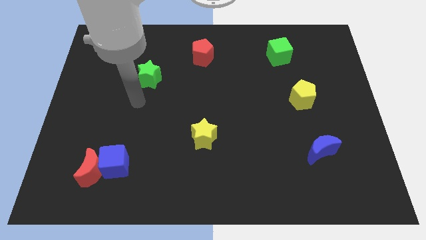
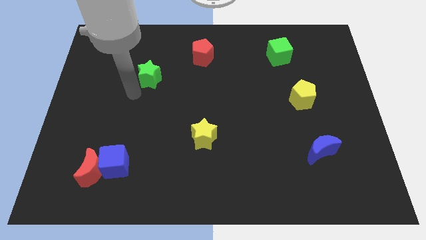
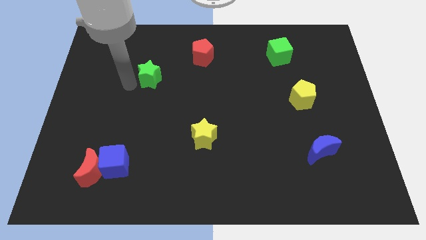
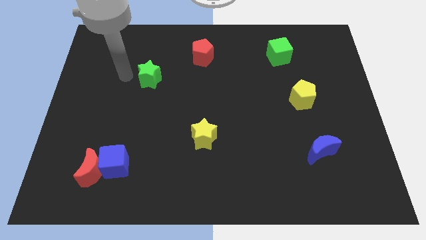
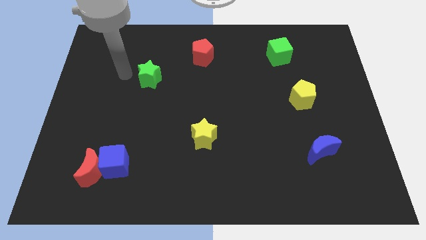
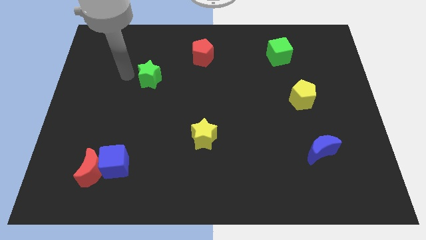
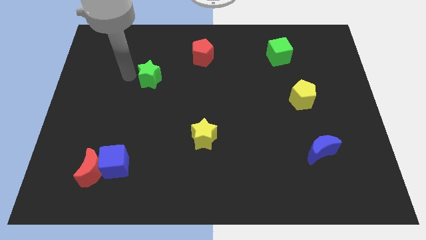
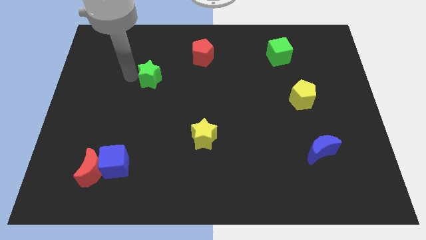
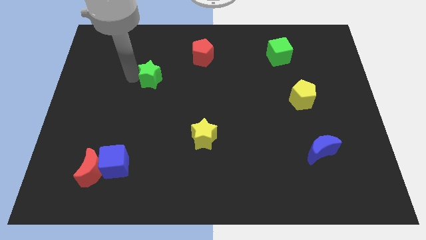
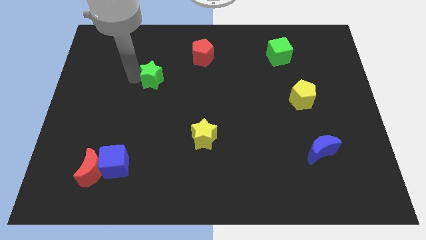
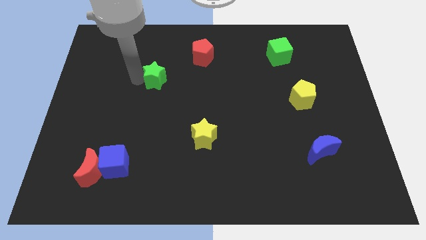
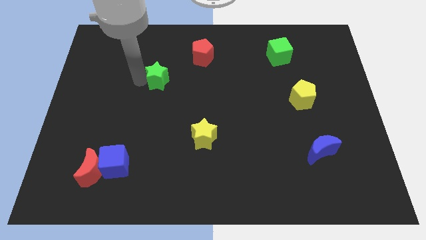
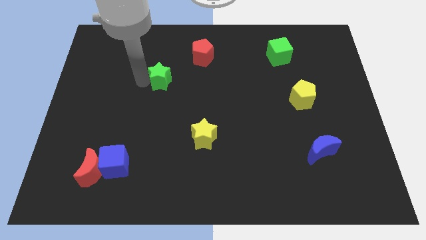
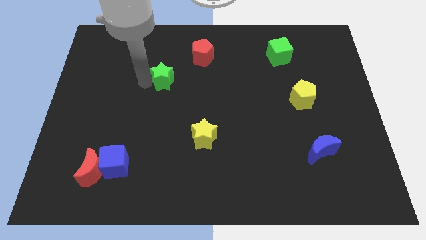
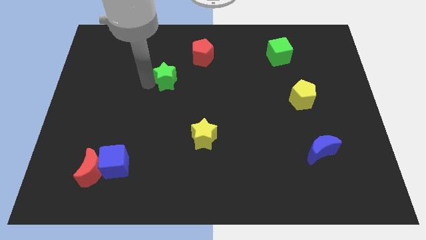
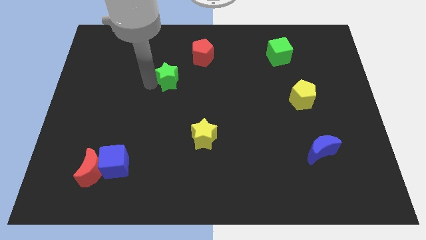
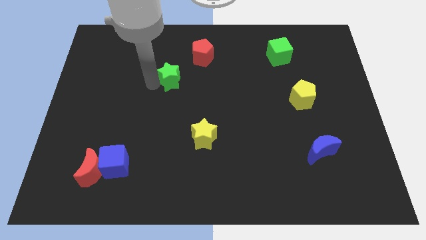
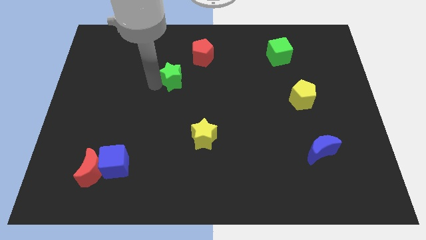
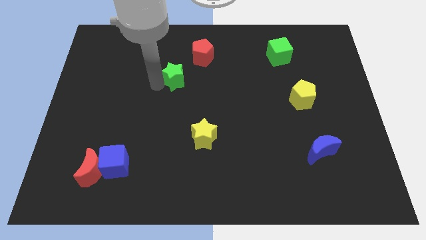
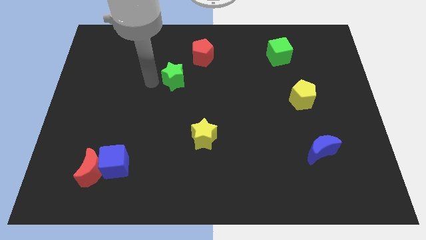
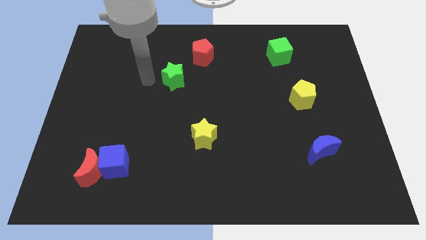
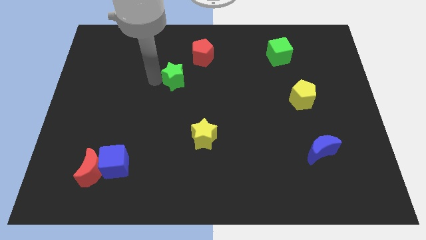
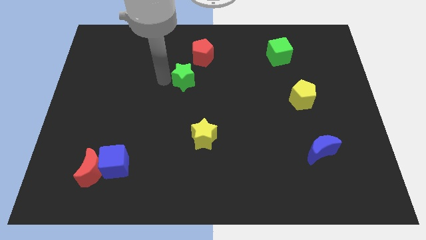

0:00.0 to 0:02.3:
slightly move the green star right

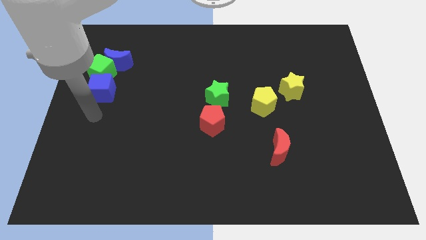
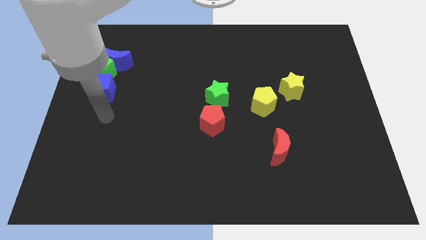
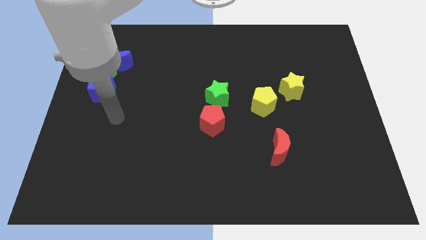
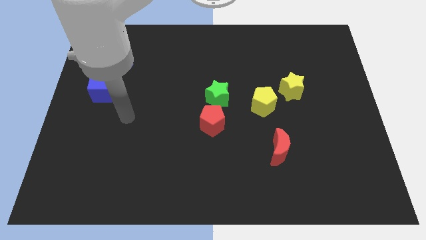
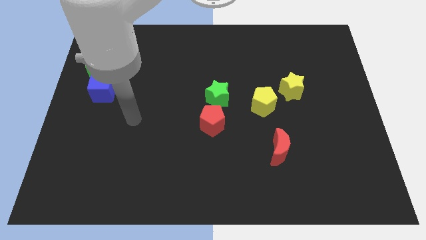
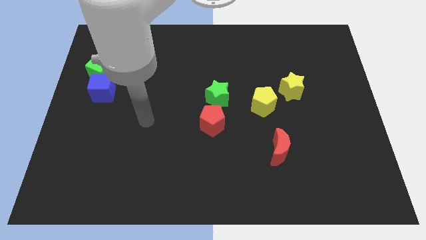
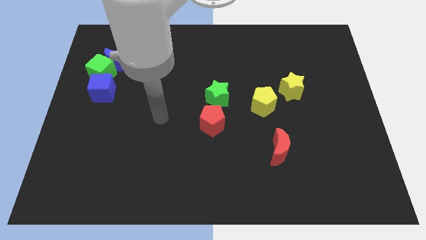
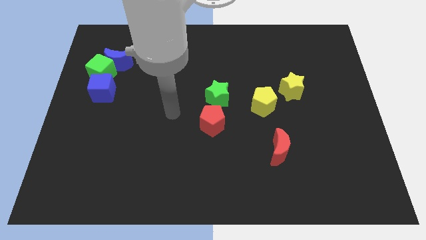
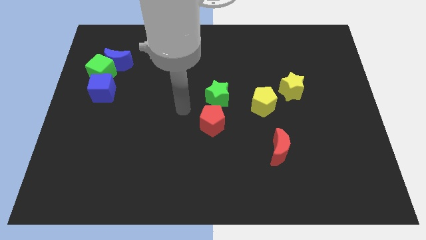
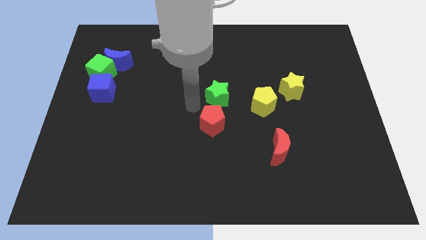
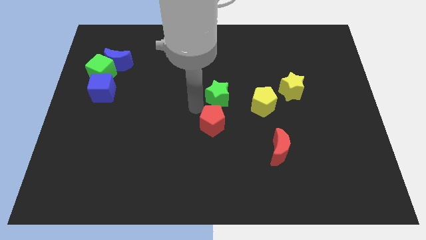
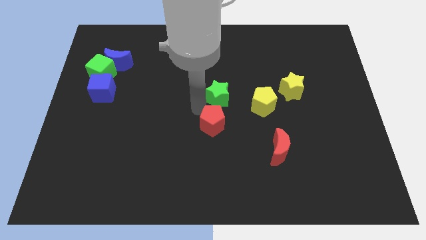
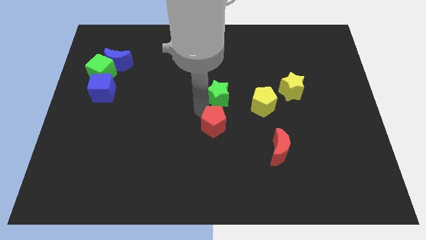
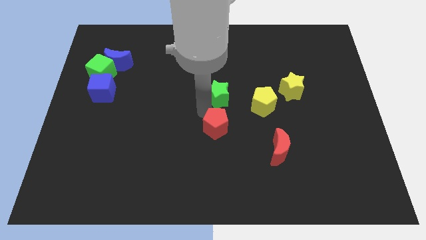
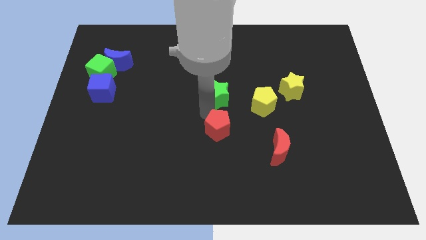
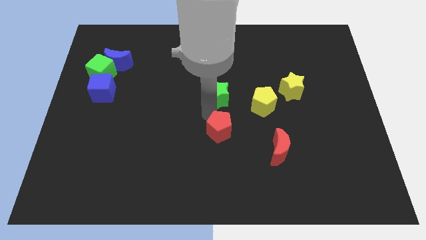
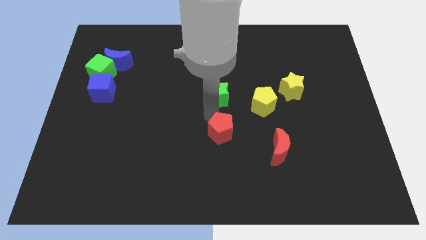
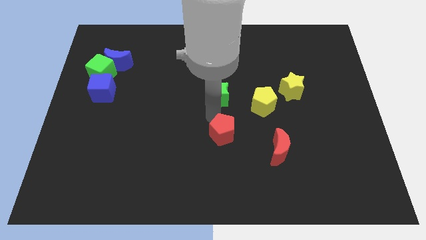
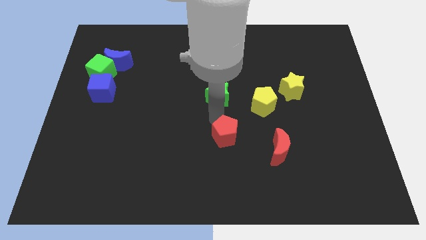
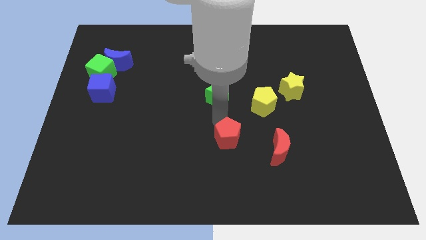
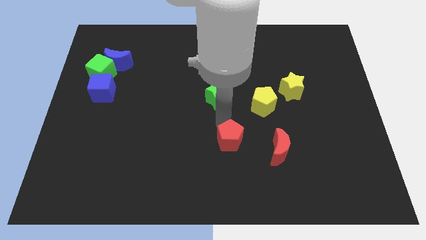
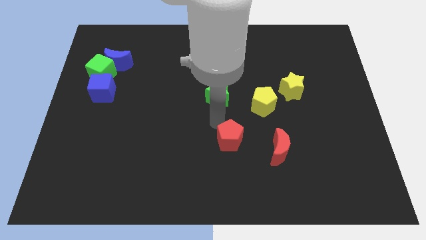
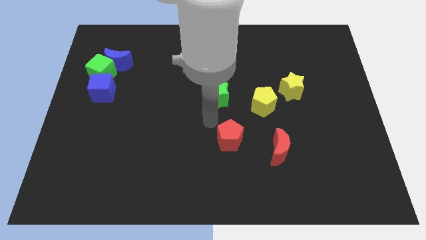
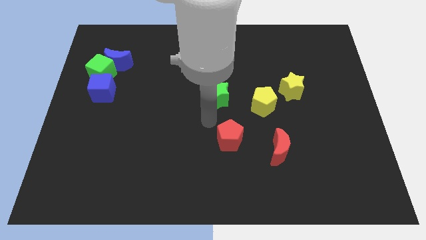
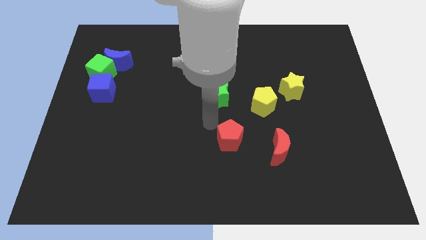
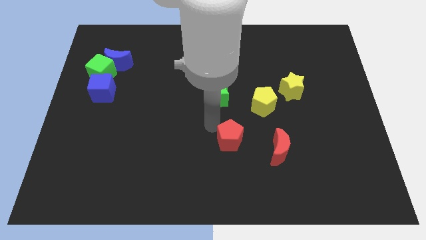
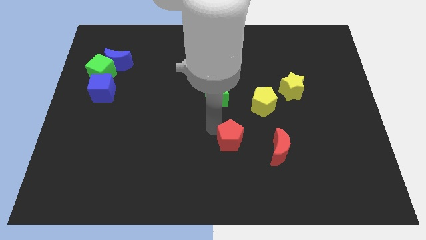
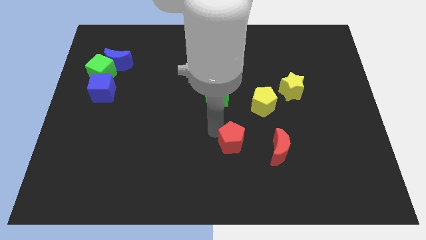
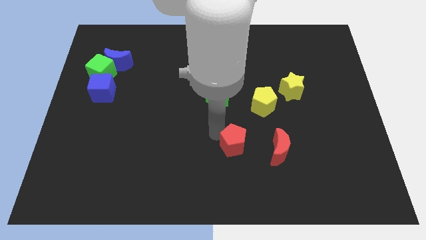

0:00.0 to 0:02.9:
push the red pentagon slightly diagonally down and to the right

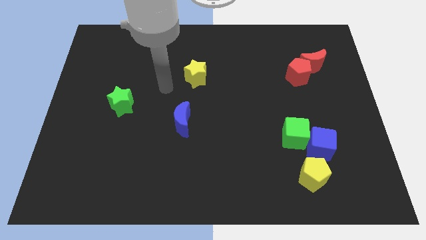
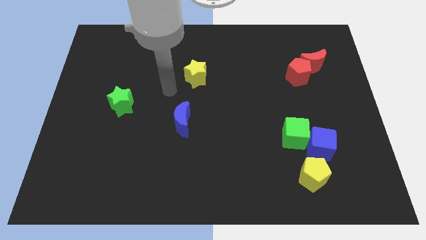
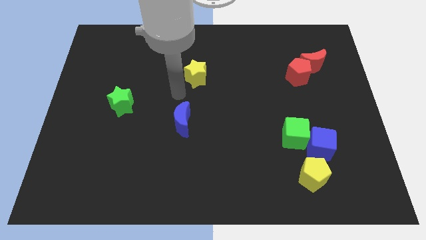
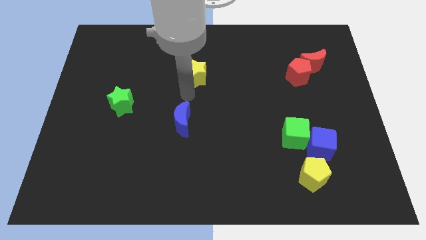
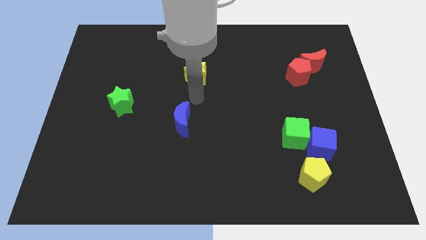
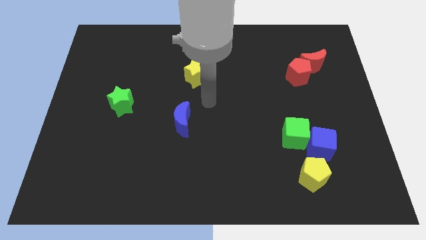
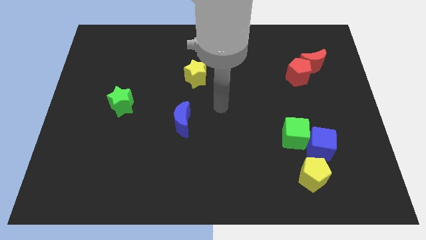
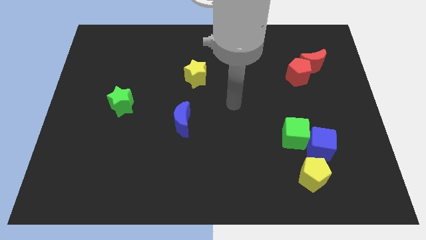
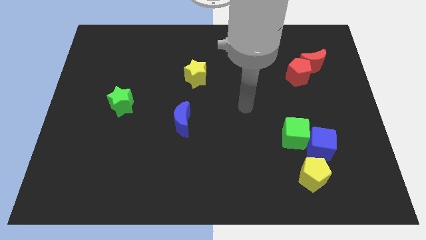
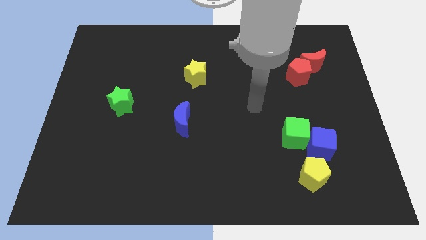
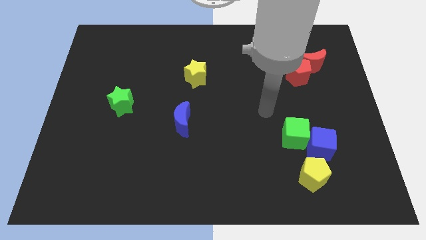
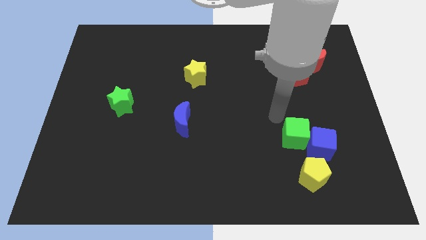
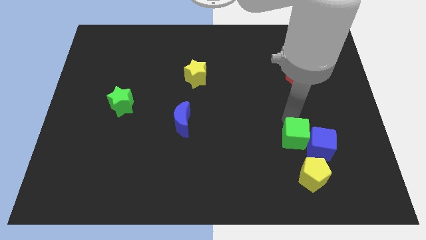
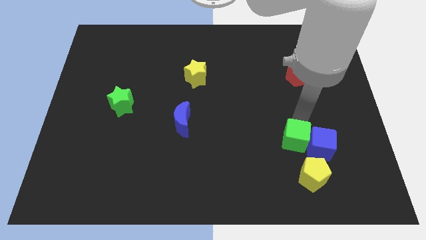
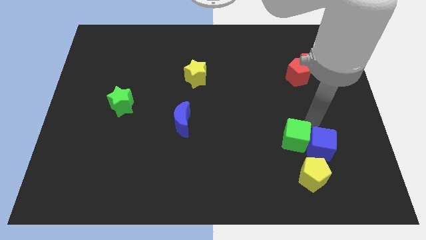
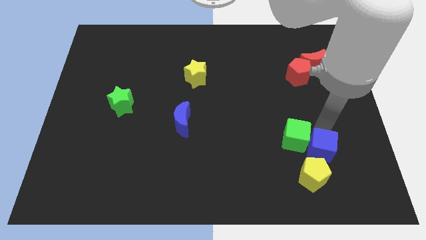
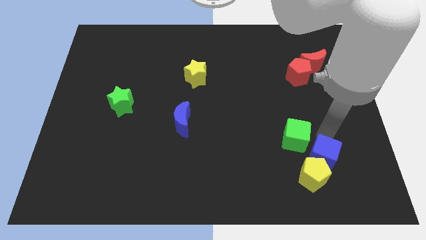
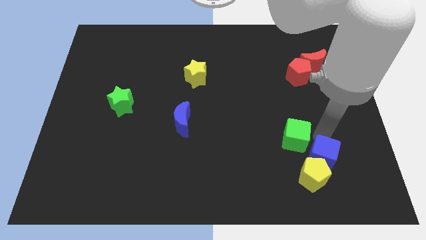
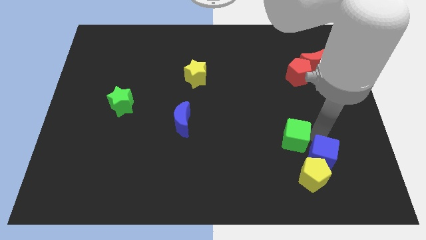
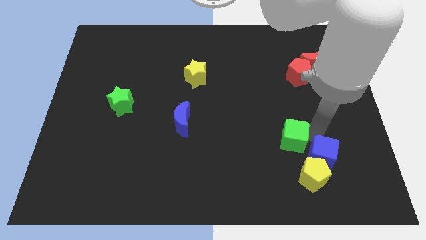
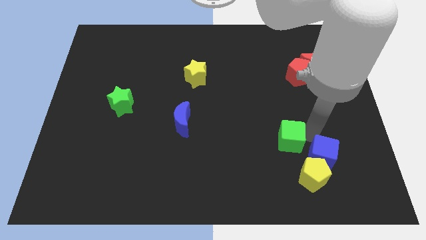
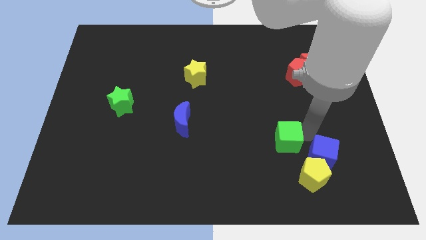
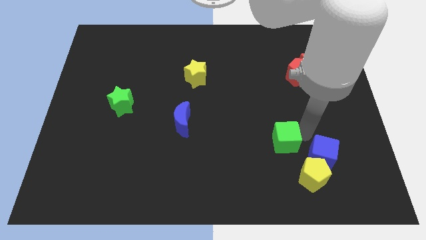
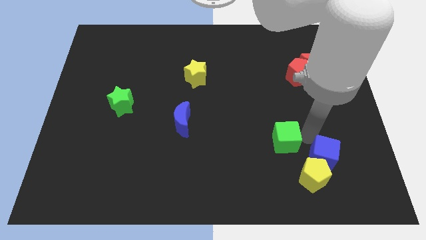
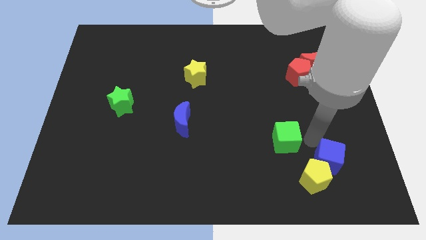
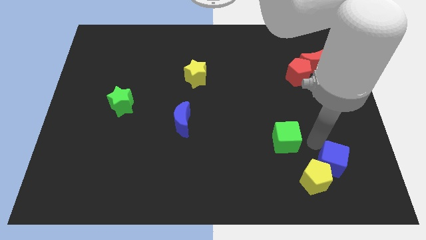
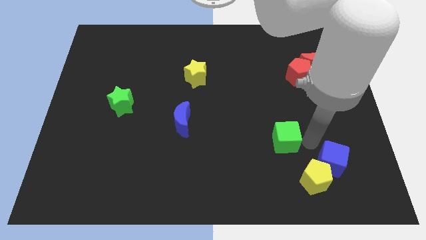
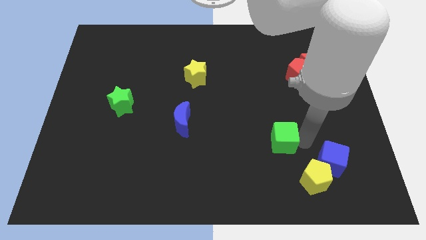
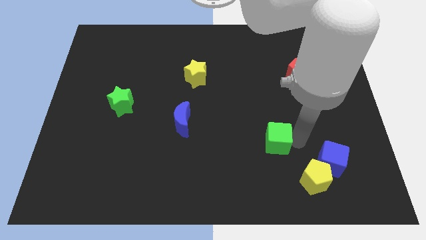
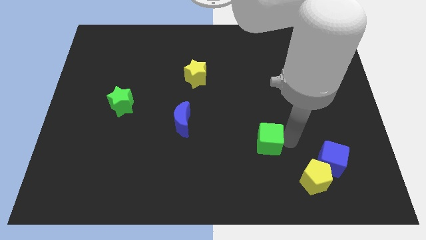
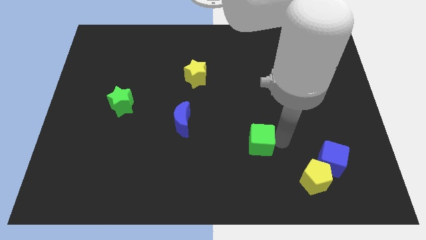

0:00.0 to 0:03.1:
push the green cube left a little

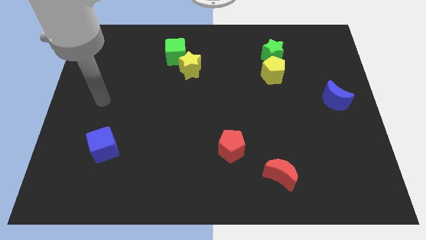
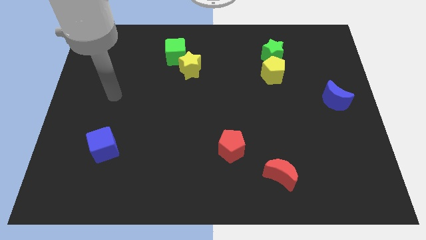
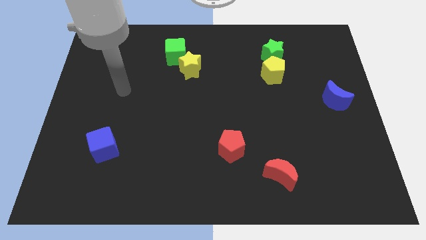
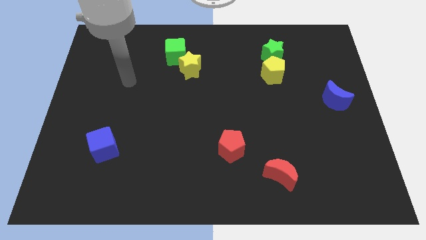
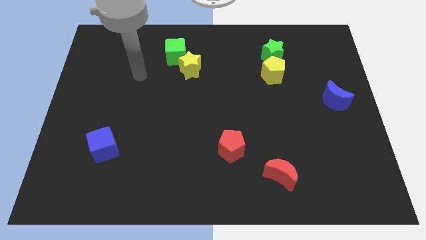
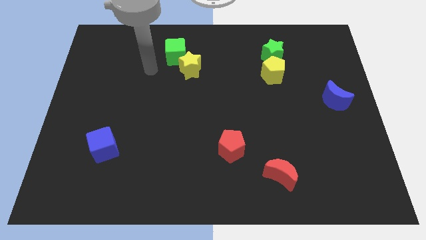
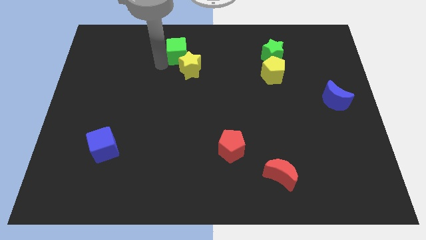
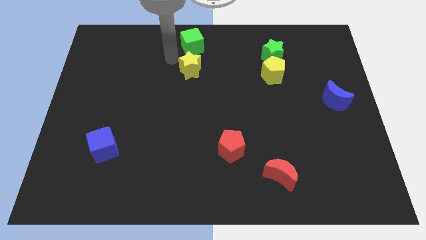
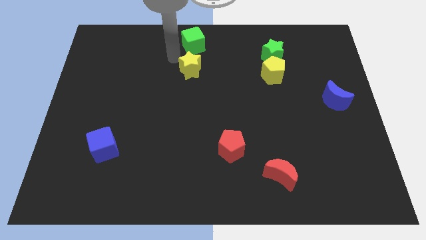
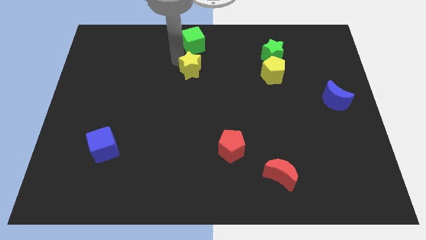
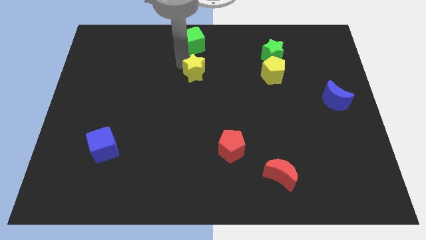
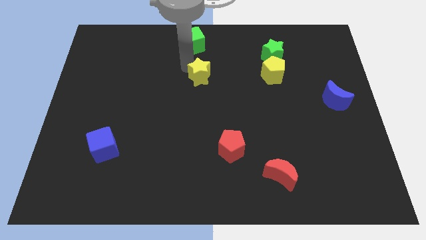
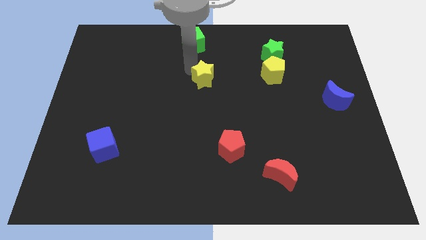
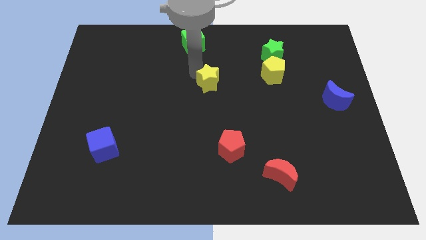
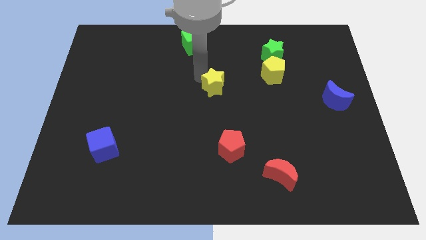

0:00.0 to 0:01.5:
slightly slide the yellow star down and to the right
